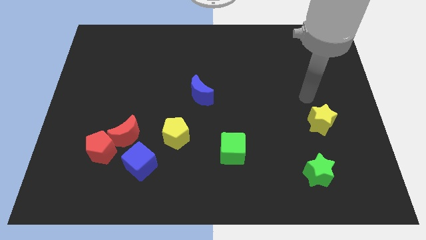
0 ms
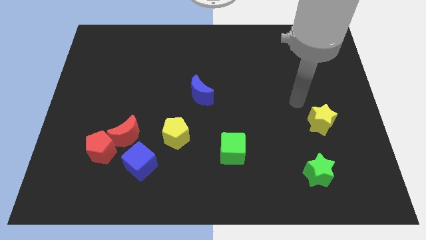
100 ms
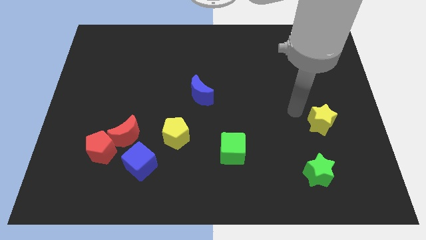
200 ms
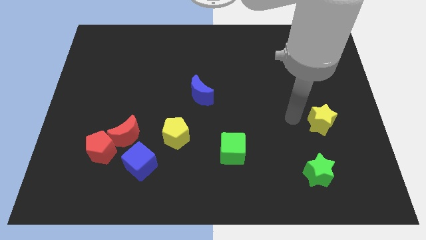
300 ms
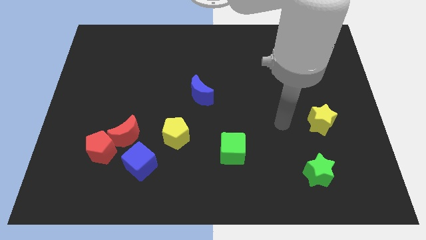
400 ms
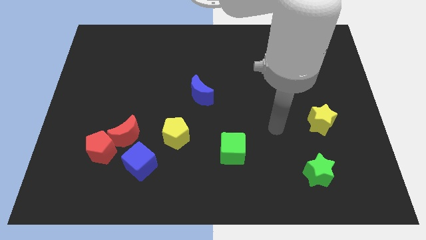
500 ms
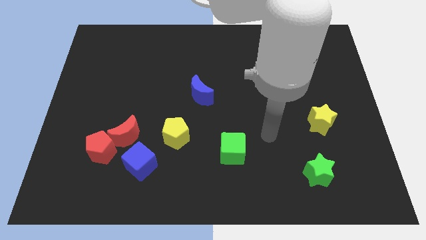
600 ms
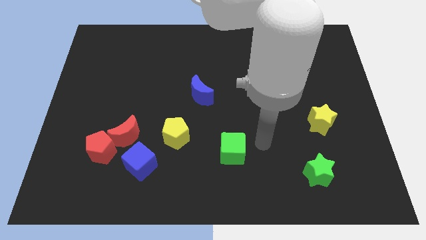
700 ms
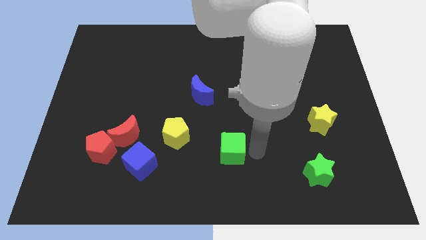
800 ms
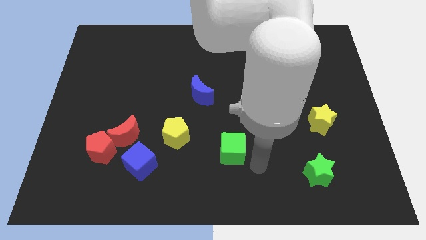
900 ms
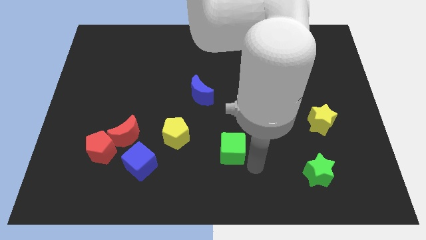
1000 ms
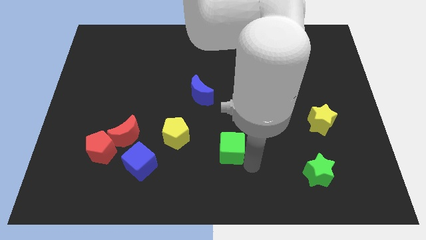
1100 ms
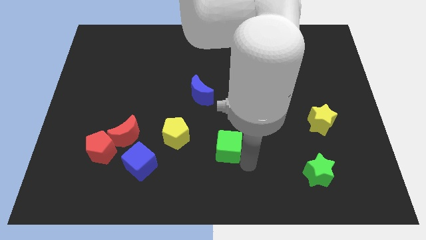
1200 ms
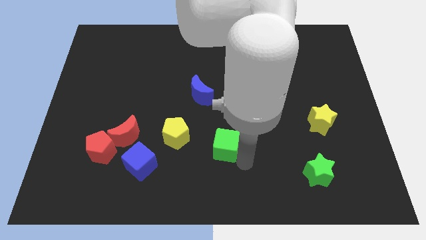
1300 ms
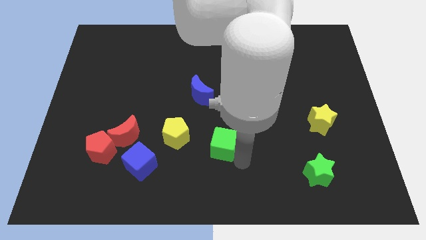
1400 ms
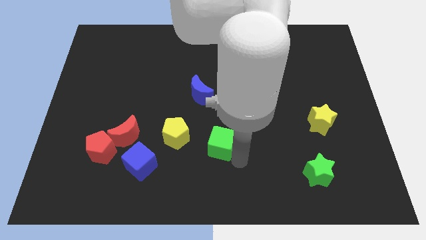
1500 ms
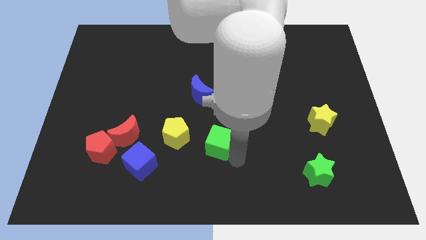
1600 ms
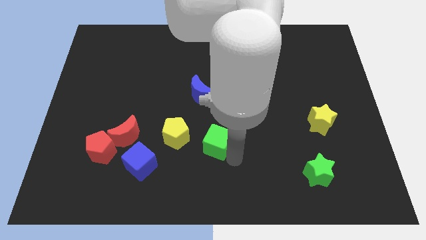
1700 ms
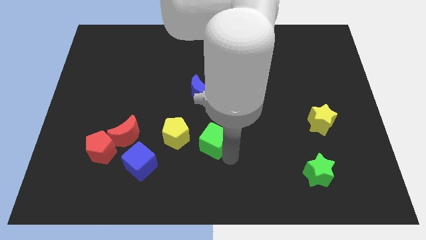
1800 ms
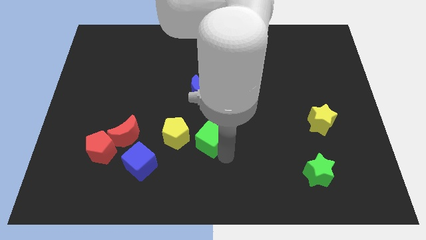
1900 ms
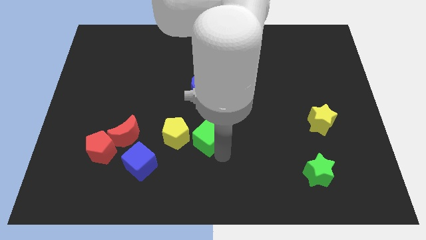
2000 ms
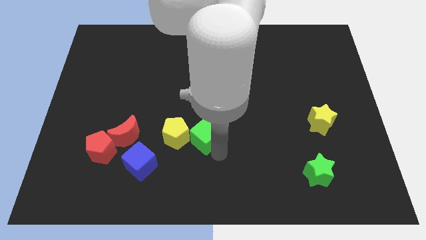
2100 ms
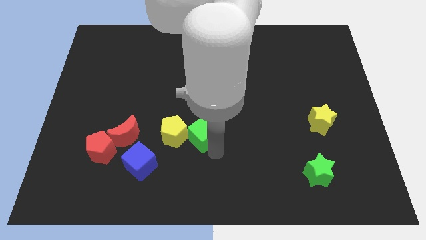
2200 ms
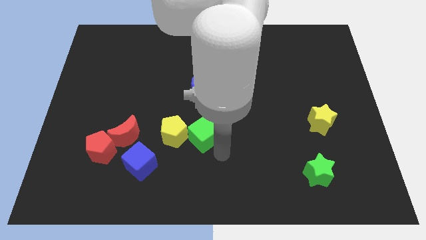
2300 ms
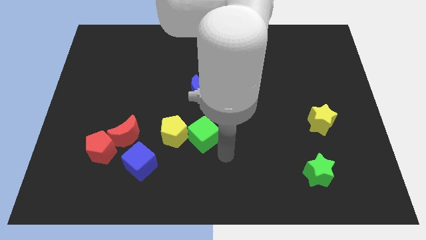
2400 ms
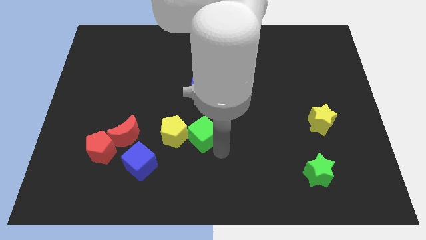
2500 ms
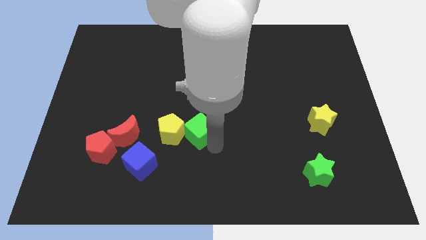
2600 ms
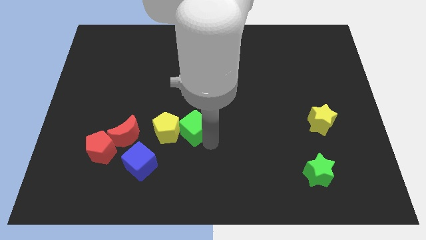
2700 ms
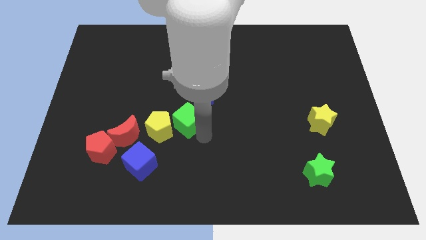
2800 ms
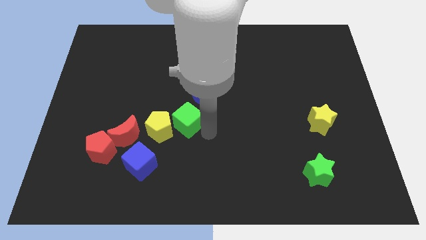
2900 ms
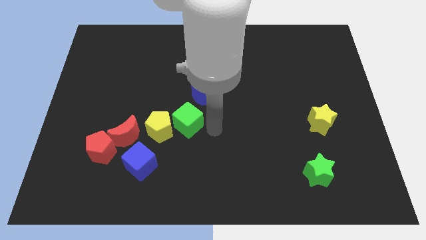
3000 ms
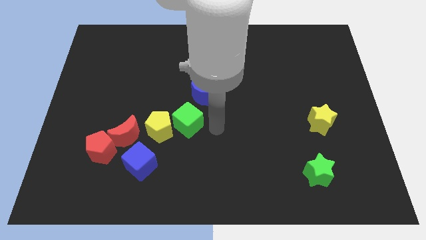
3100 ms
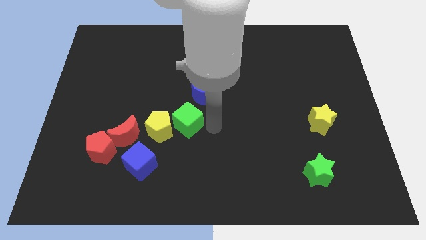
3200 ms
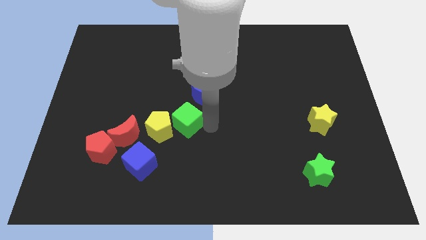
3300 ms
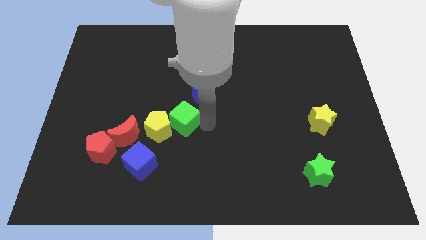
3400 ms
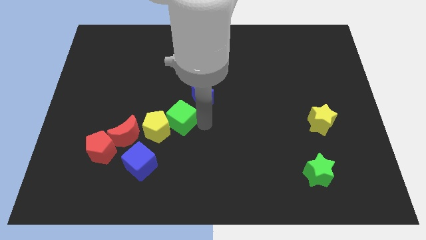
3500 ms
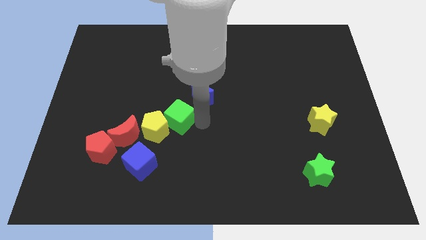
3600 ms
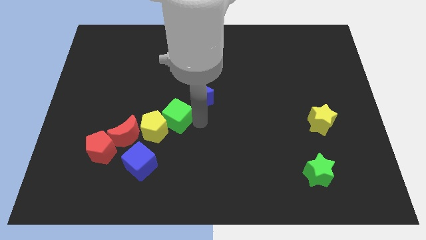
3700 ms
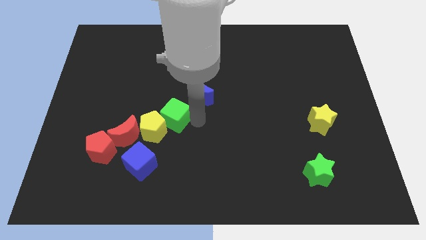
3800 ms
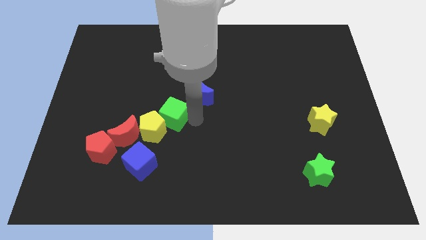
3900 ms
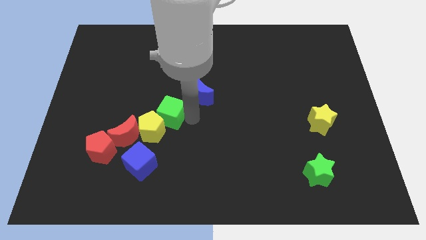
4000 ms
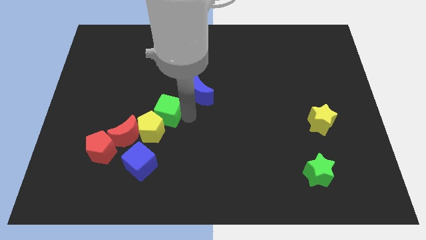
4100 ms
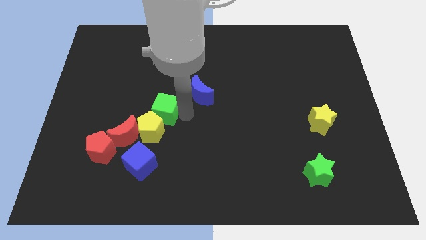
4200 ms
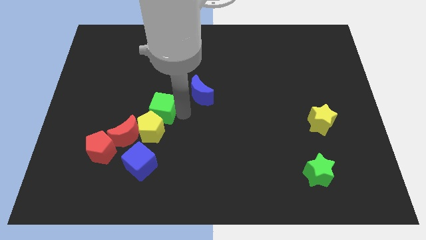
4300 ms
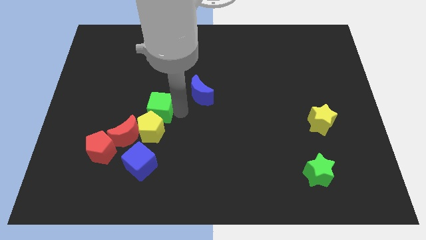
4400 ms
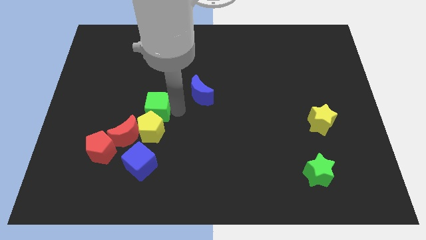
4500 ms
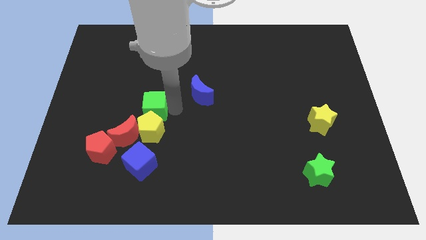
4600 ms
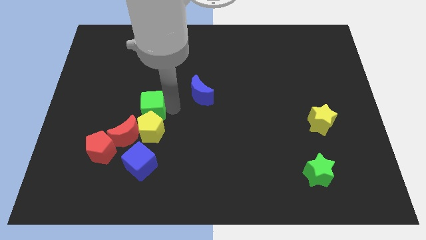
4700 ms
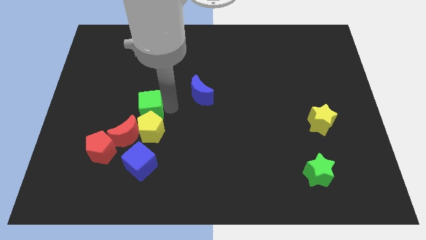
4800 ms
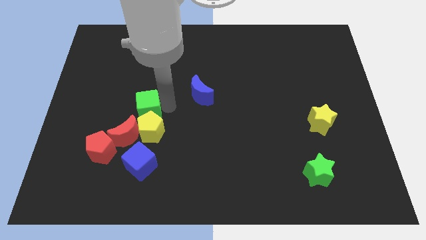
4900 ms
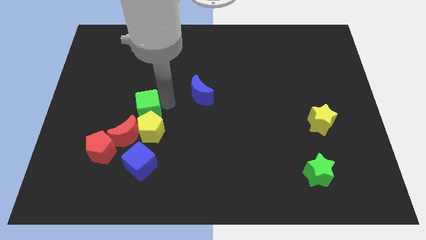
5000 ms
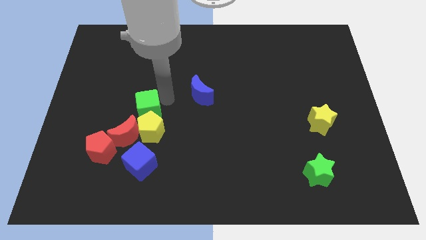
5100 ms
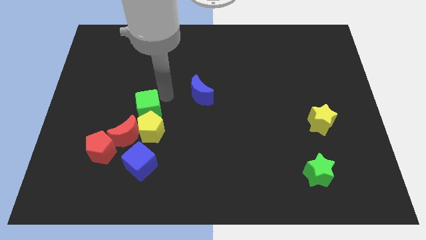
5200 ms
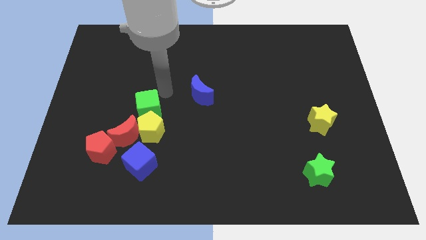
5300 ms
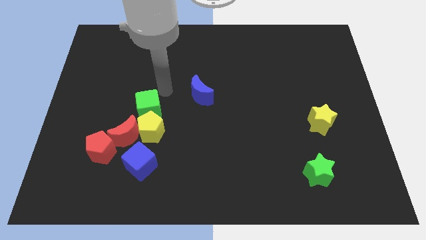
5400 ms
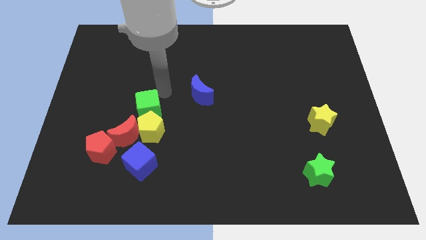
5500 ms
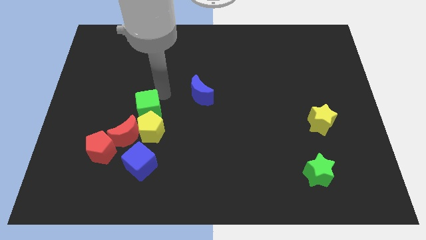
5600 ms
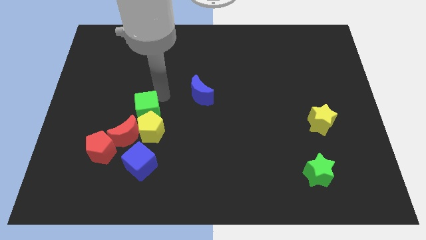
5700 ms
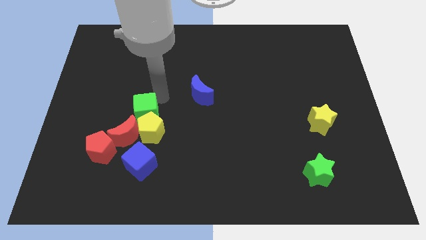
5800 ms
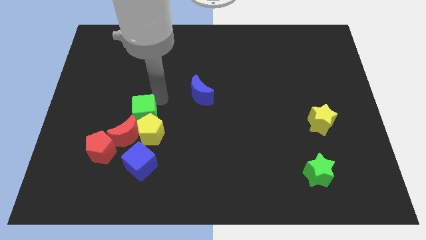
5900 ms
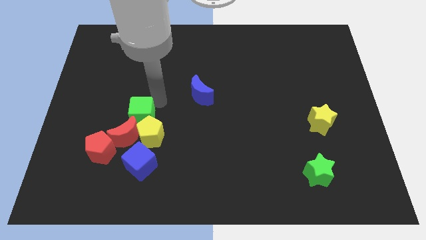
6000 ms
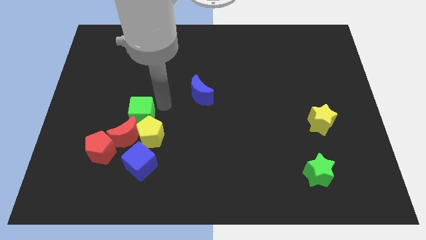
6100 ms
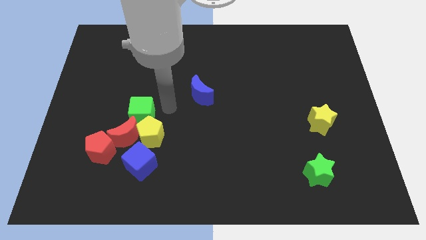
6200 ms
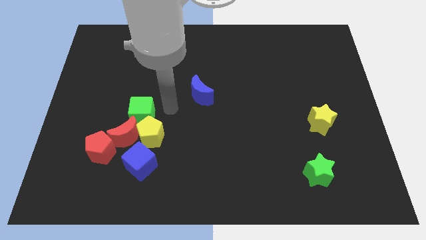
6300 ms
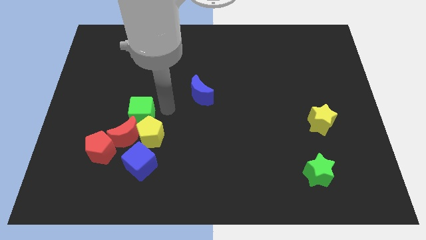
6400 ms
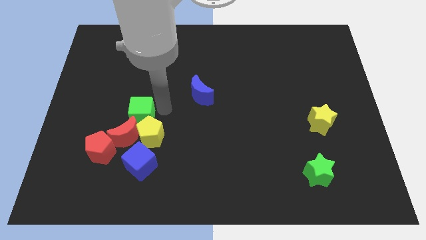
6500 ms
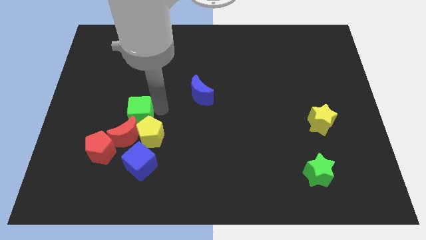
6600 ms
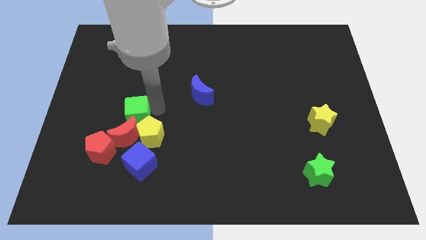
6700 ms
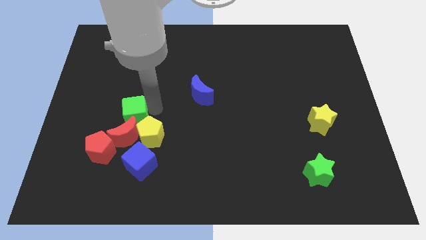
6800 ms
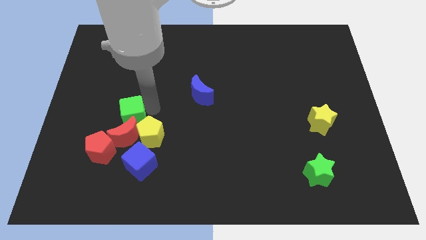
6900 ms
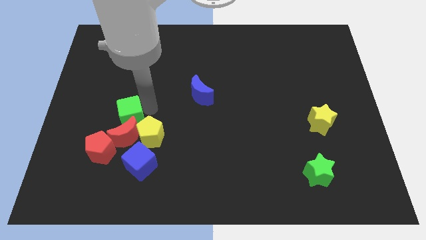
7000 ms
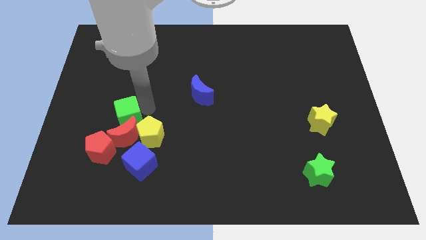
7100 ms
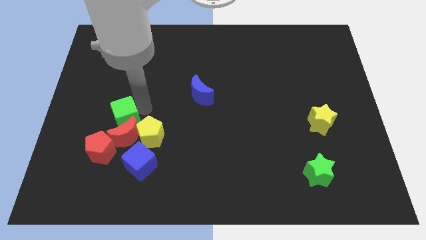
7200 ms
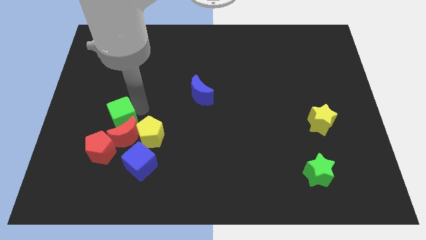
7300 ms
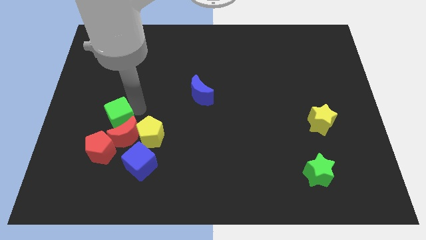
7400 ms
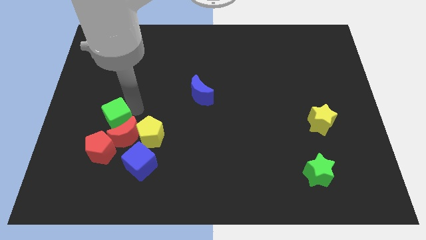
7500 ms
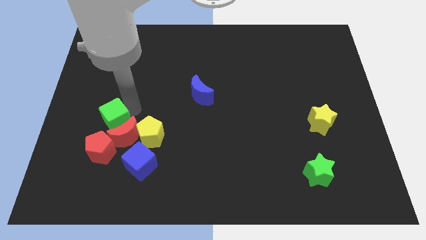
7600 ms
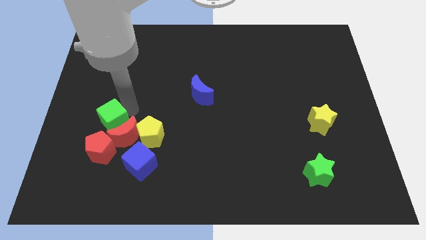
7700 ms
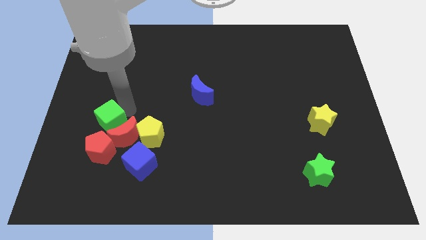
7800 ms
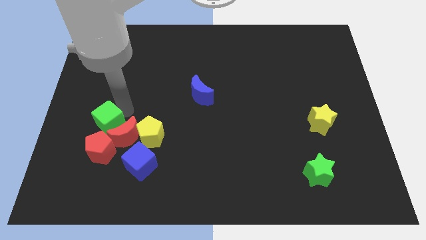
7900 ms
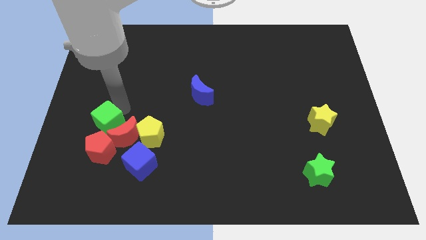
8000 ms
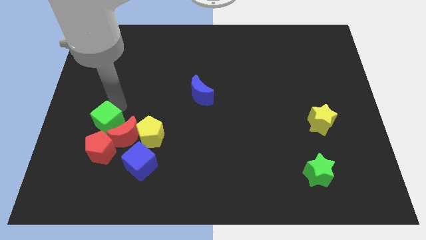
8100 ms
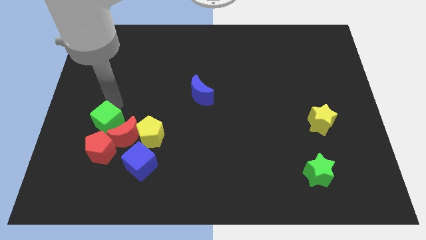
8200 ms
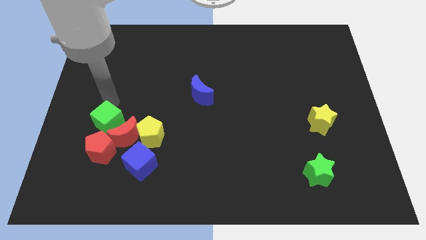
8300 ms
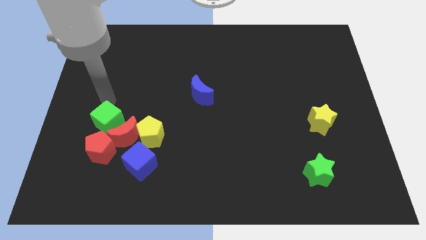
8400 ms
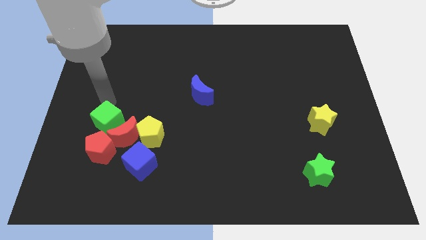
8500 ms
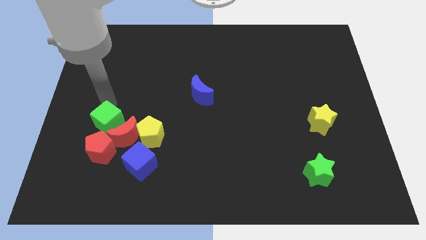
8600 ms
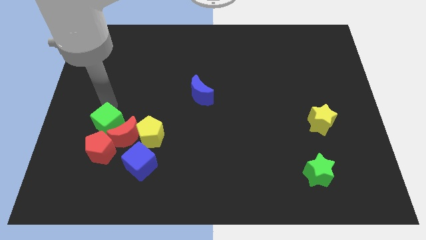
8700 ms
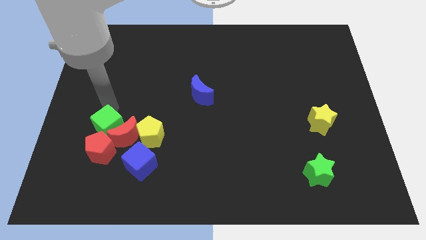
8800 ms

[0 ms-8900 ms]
move the green cube to the top left of the blue cube
